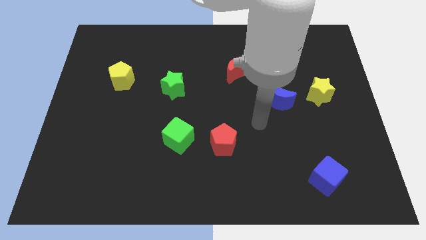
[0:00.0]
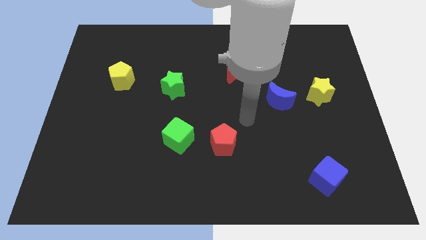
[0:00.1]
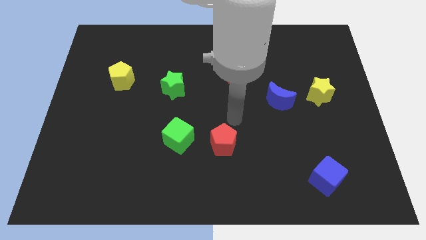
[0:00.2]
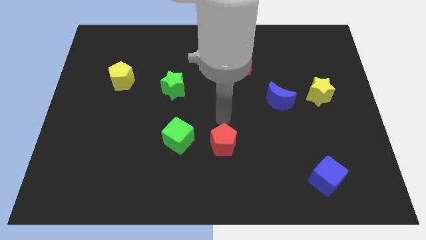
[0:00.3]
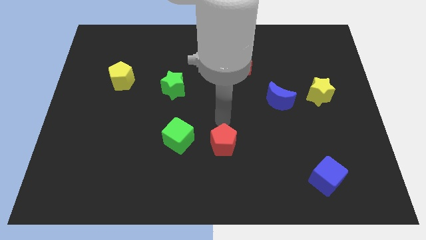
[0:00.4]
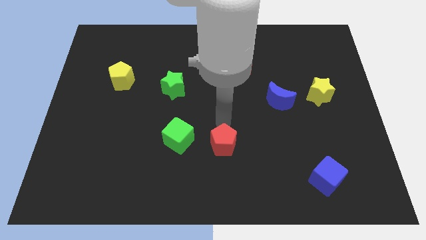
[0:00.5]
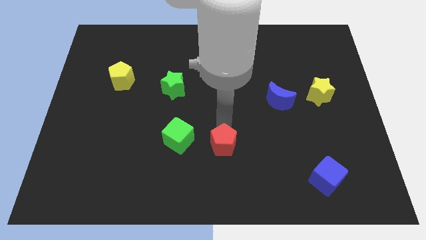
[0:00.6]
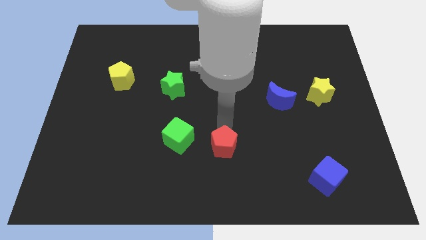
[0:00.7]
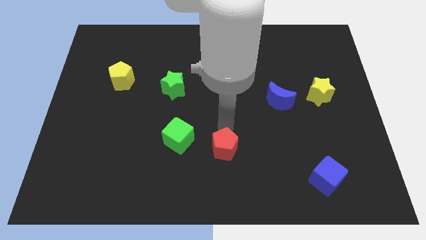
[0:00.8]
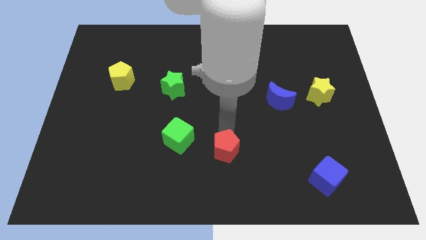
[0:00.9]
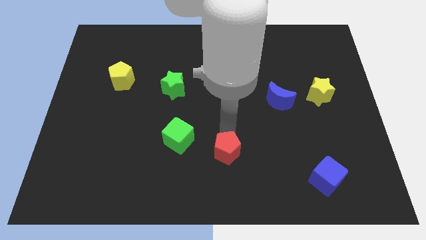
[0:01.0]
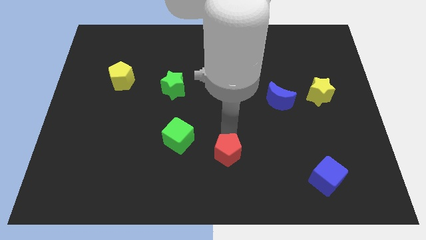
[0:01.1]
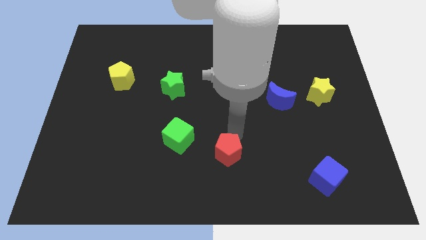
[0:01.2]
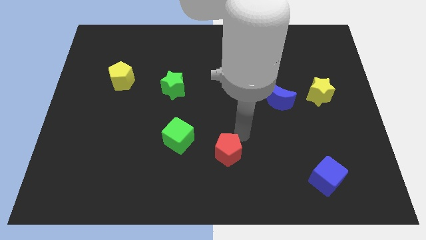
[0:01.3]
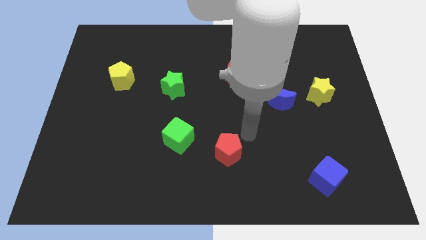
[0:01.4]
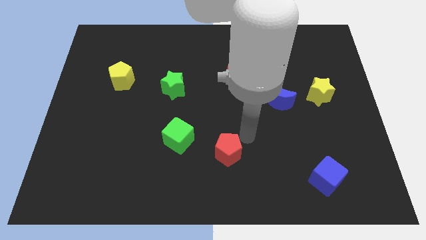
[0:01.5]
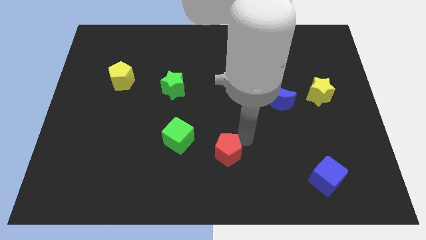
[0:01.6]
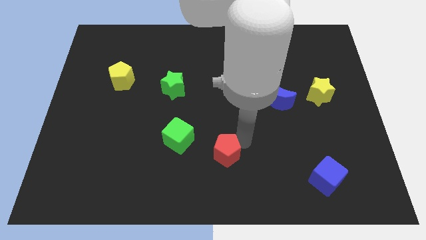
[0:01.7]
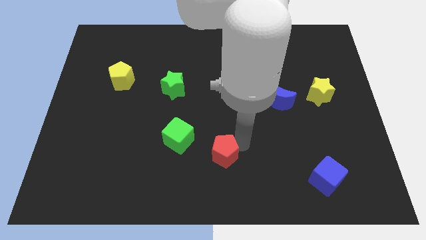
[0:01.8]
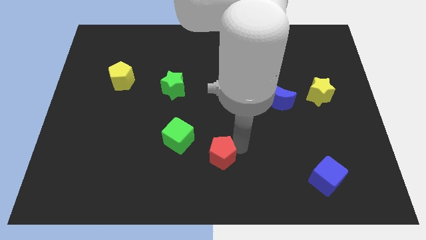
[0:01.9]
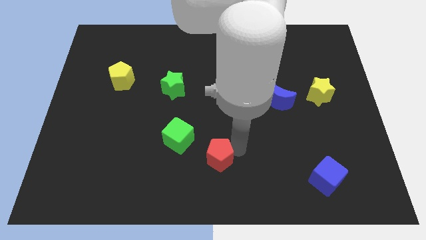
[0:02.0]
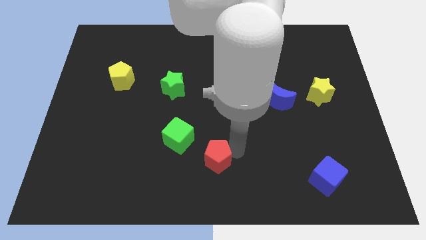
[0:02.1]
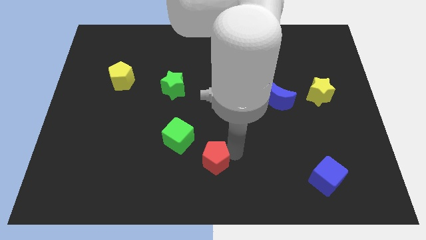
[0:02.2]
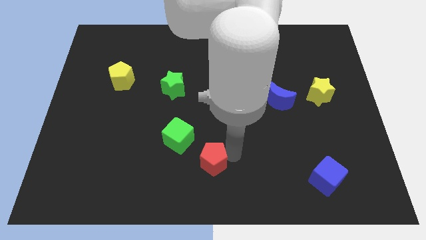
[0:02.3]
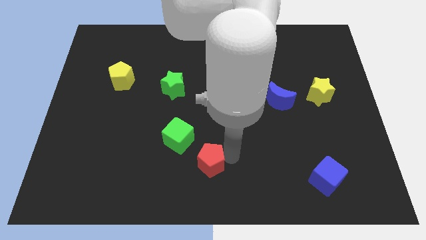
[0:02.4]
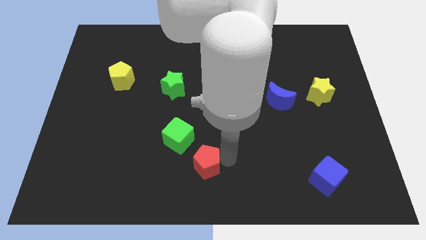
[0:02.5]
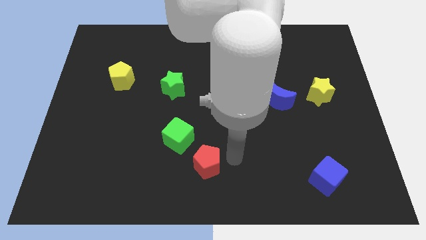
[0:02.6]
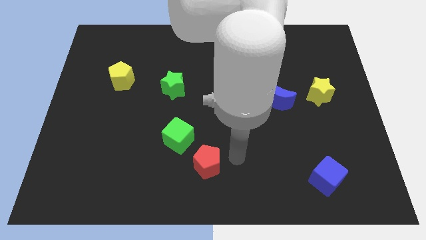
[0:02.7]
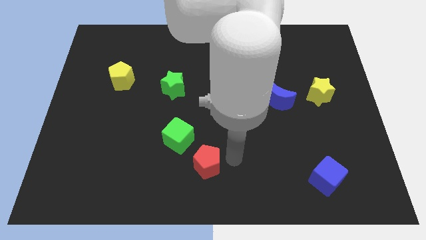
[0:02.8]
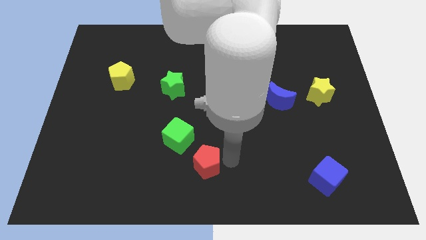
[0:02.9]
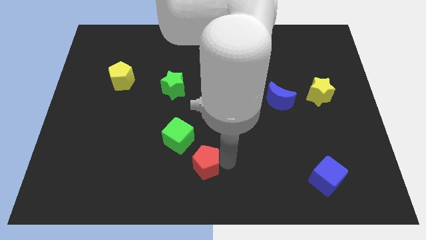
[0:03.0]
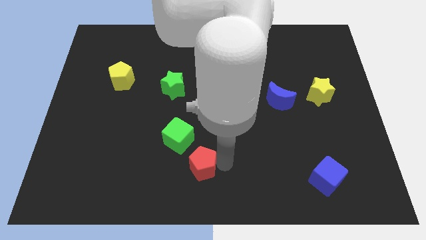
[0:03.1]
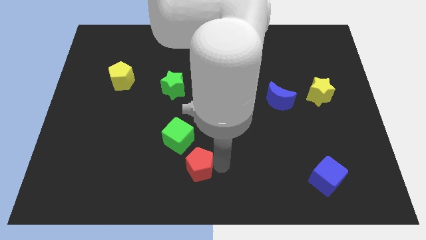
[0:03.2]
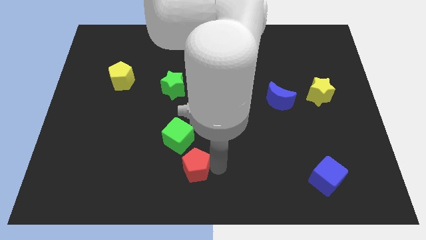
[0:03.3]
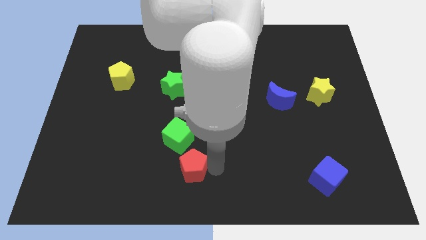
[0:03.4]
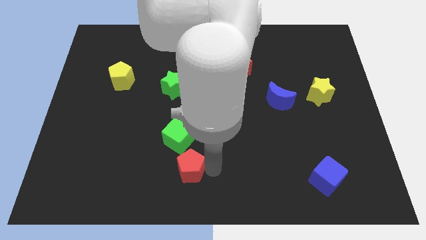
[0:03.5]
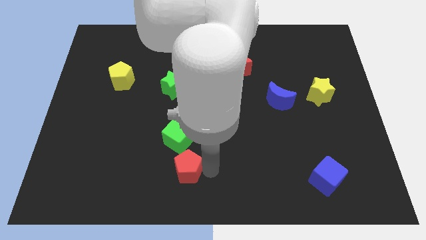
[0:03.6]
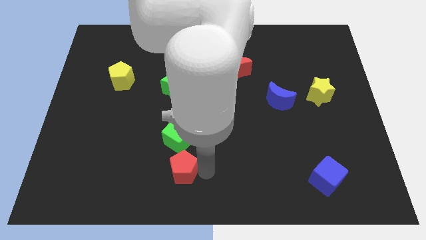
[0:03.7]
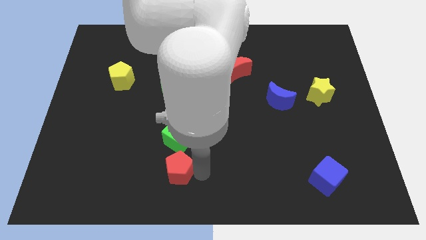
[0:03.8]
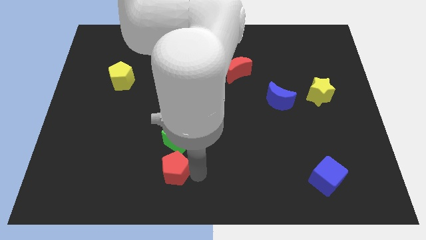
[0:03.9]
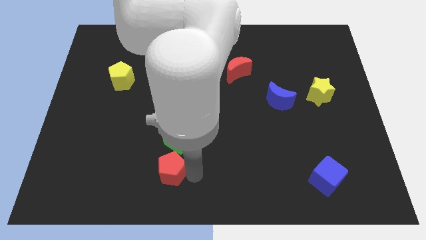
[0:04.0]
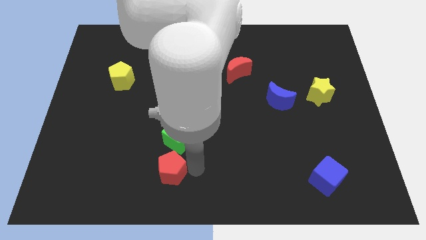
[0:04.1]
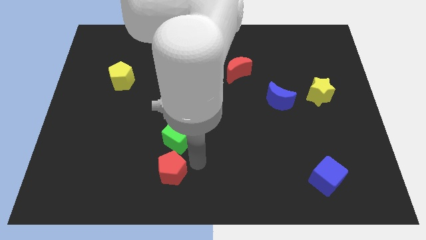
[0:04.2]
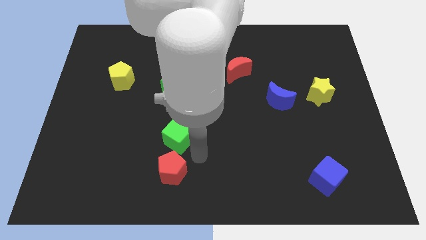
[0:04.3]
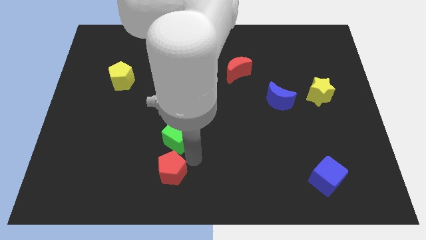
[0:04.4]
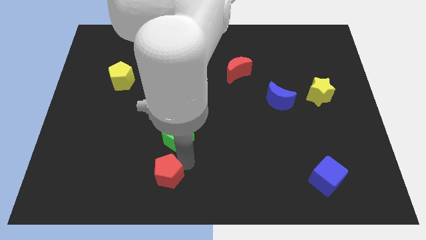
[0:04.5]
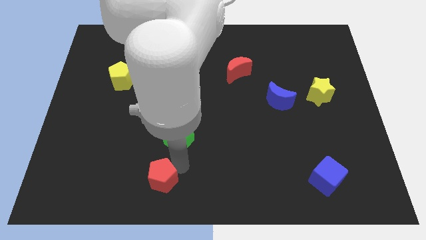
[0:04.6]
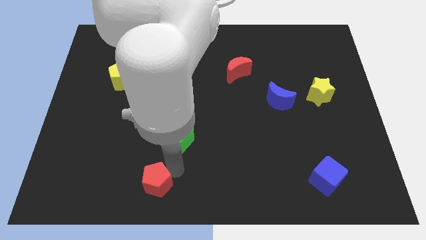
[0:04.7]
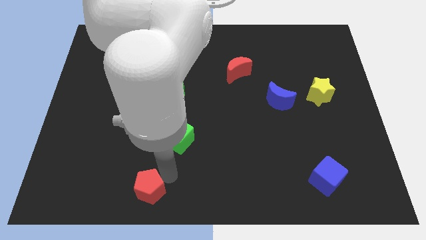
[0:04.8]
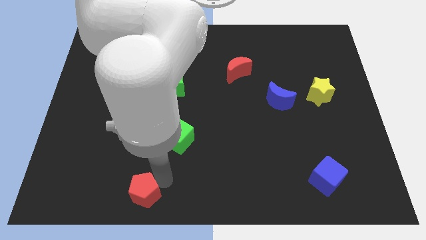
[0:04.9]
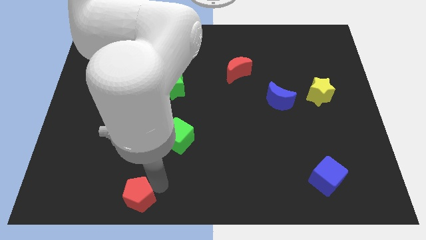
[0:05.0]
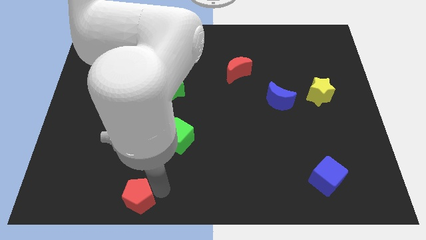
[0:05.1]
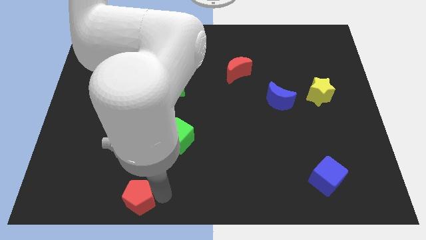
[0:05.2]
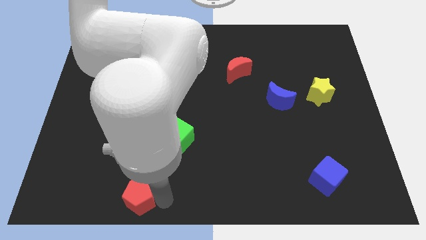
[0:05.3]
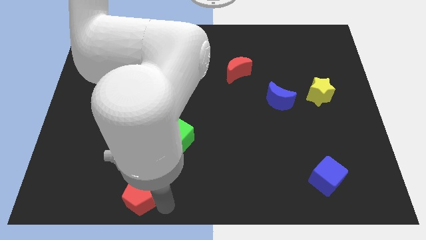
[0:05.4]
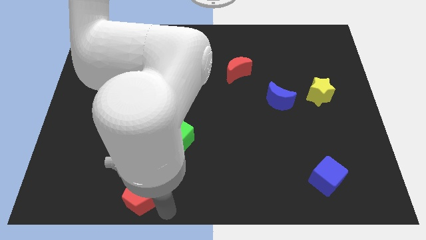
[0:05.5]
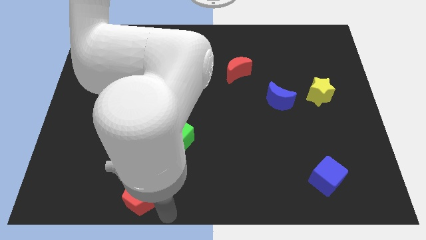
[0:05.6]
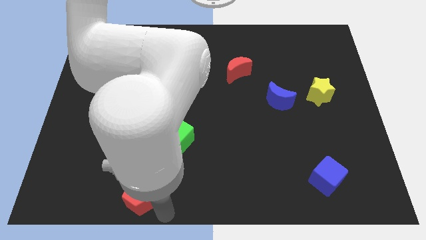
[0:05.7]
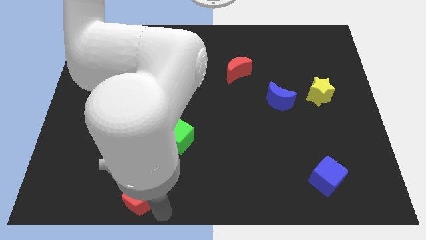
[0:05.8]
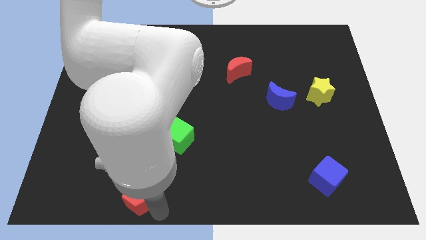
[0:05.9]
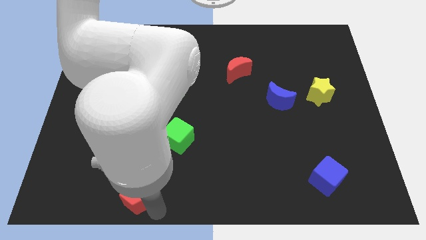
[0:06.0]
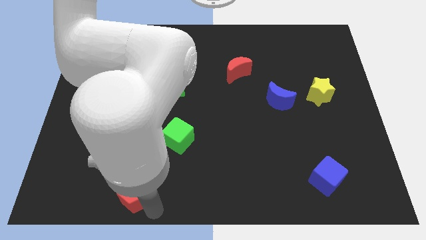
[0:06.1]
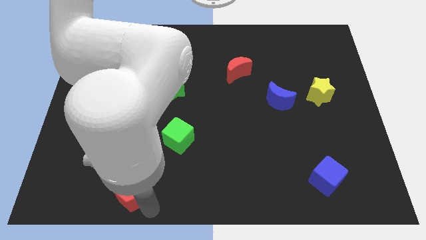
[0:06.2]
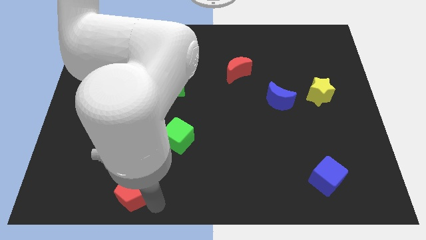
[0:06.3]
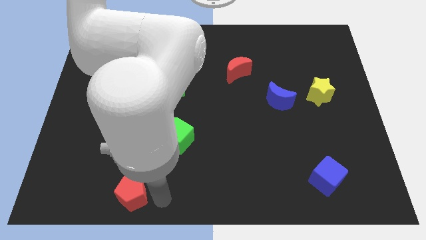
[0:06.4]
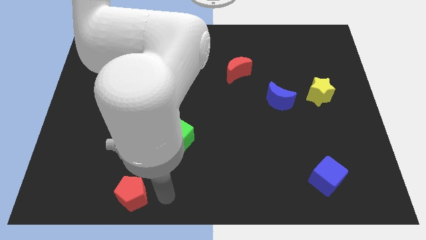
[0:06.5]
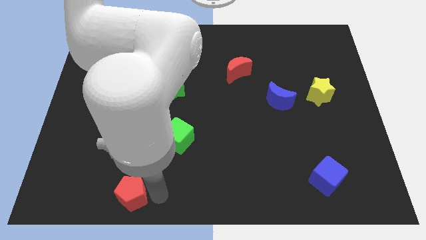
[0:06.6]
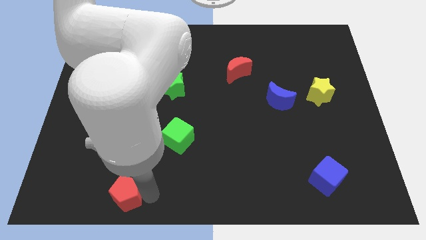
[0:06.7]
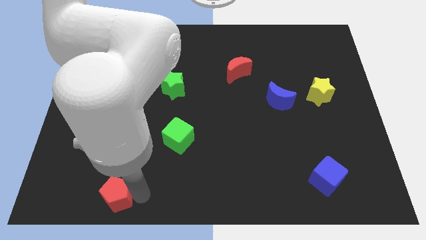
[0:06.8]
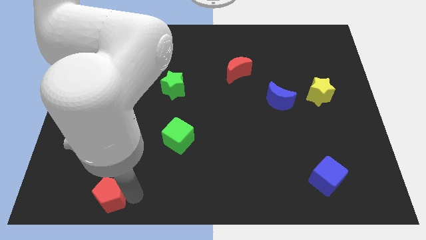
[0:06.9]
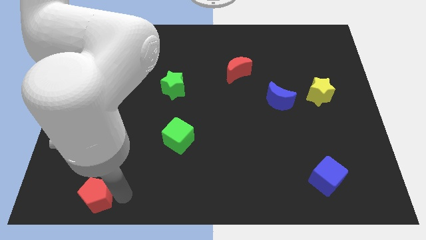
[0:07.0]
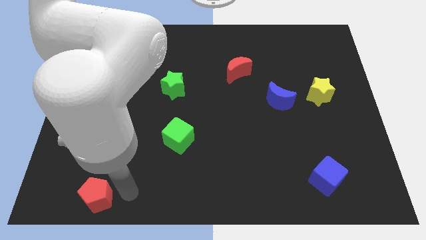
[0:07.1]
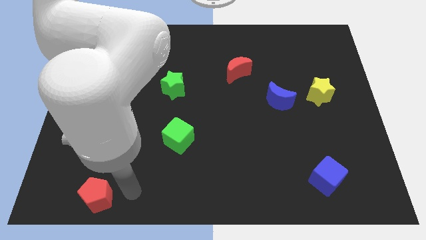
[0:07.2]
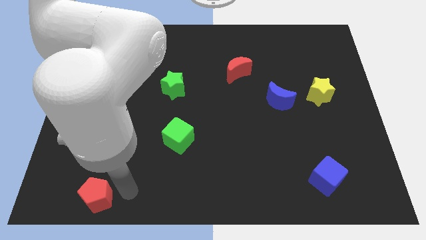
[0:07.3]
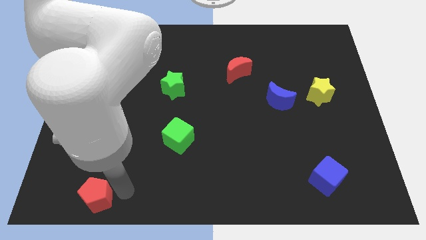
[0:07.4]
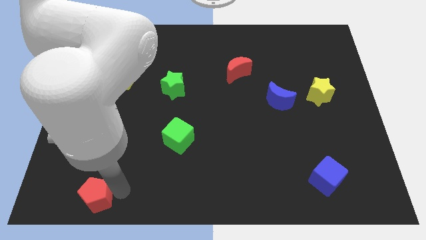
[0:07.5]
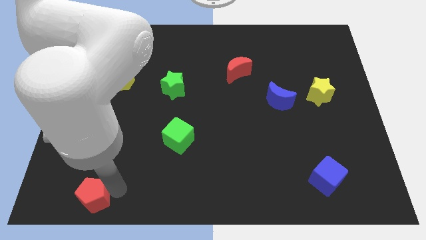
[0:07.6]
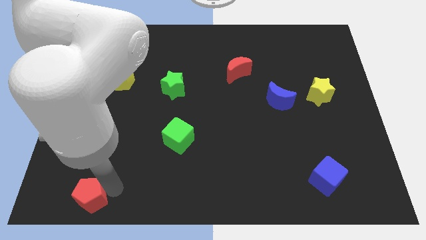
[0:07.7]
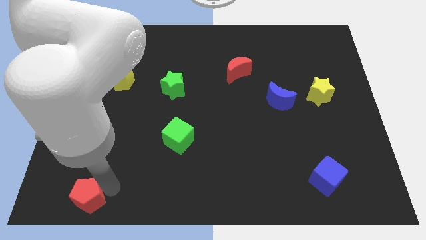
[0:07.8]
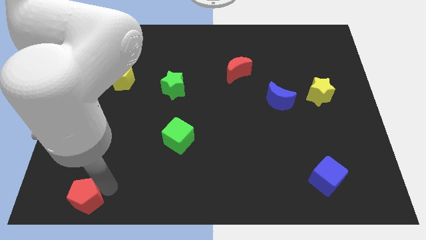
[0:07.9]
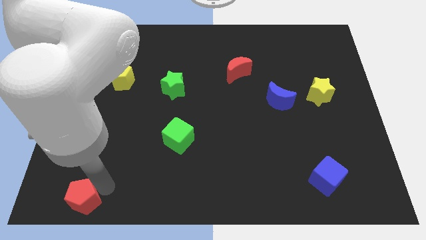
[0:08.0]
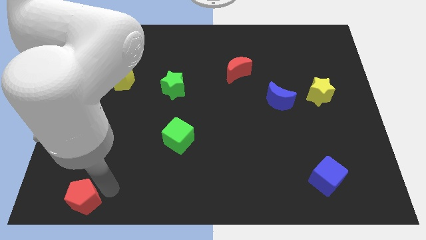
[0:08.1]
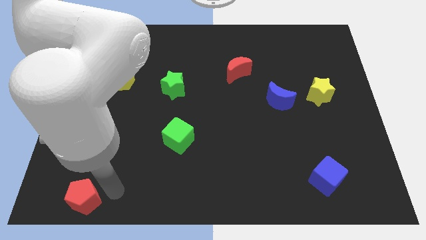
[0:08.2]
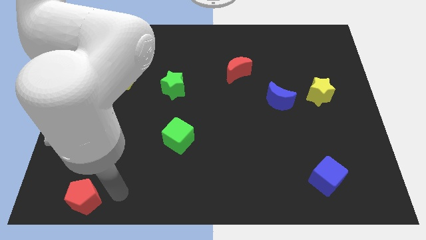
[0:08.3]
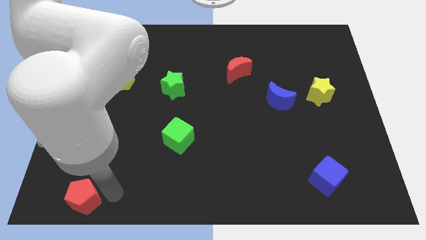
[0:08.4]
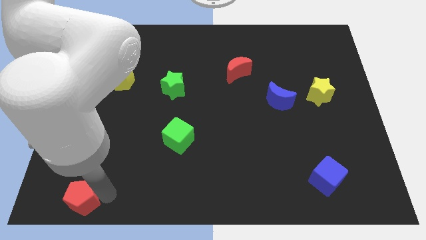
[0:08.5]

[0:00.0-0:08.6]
put the red pentagon to the bottom left corner
